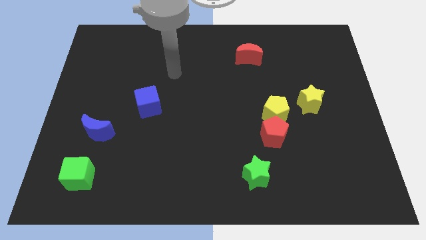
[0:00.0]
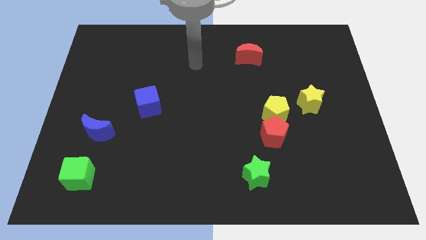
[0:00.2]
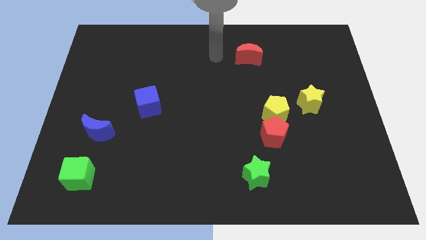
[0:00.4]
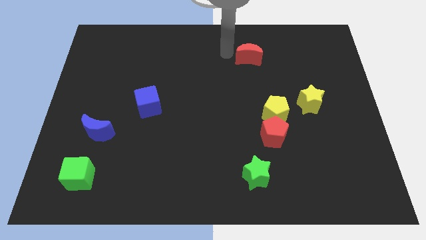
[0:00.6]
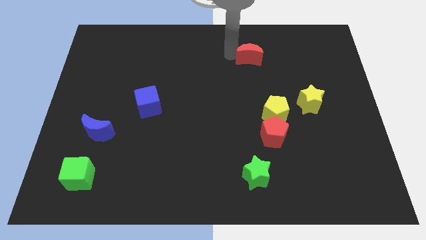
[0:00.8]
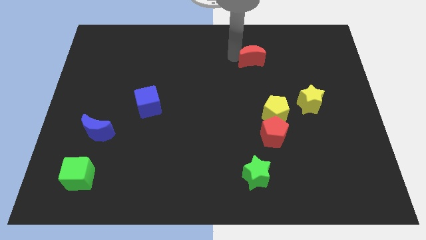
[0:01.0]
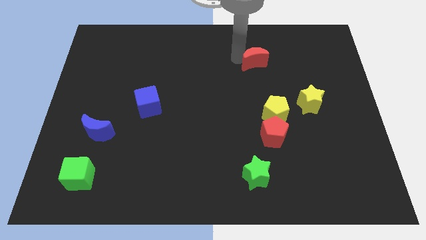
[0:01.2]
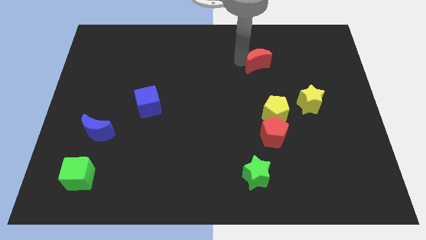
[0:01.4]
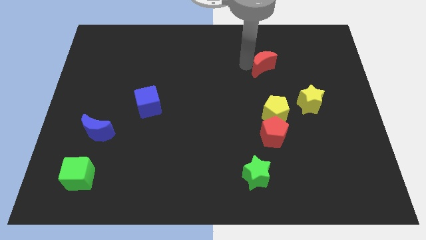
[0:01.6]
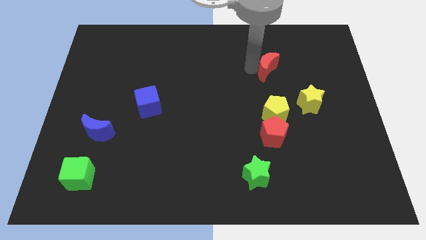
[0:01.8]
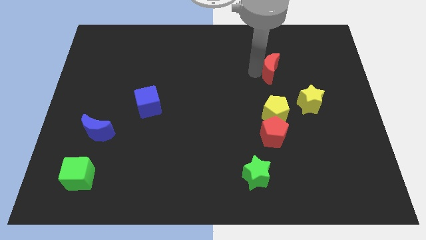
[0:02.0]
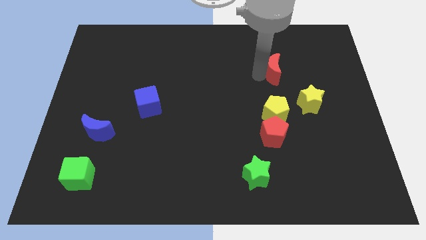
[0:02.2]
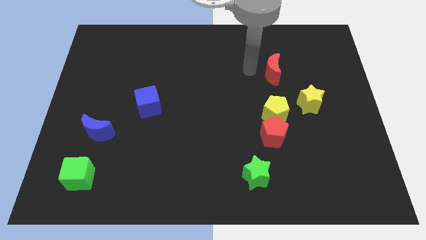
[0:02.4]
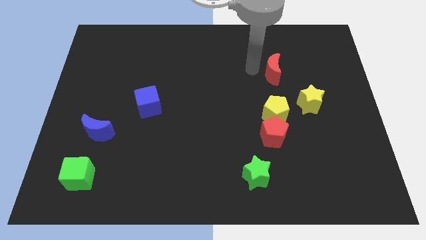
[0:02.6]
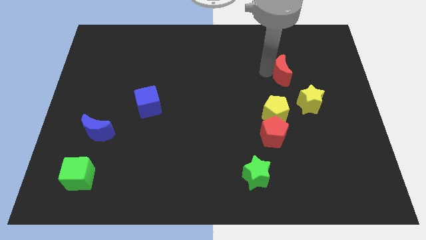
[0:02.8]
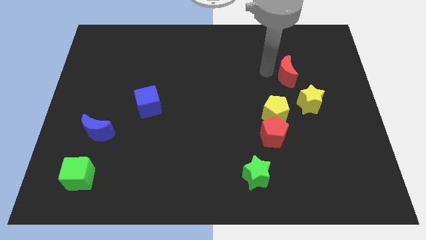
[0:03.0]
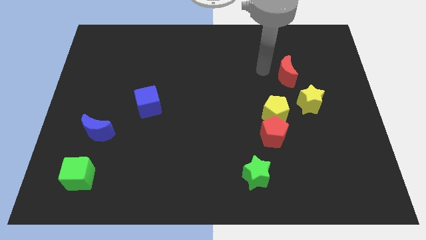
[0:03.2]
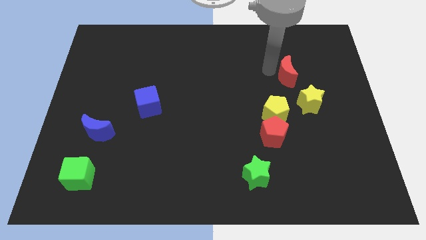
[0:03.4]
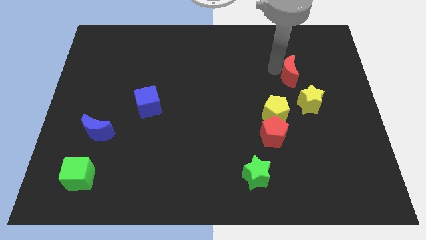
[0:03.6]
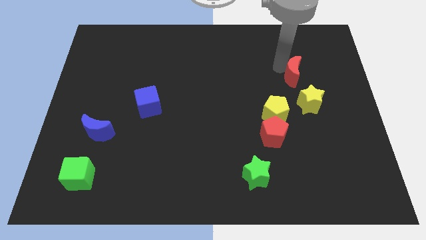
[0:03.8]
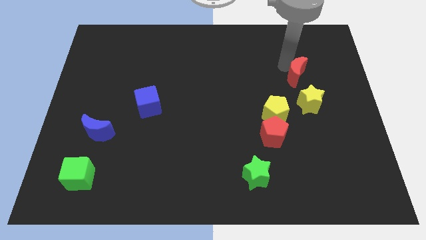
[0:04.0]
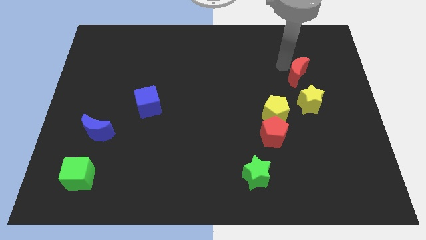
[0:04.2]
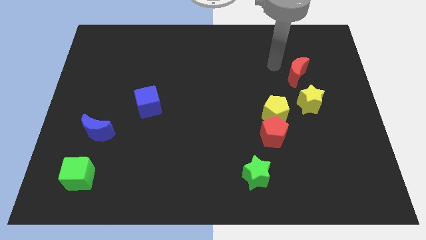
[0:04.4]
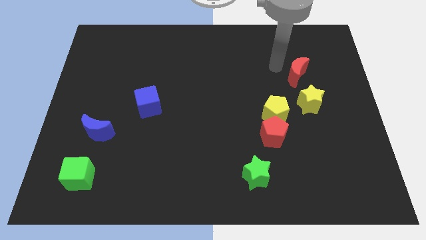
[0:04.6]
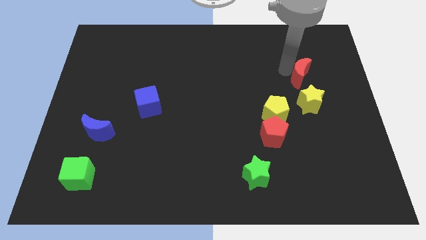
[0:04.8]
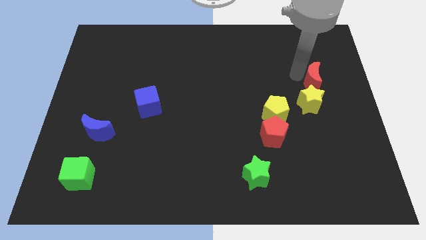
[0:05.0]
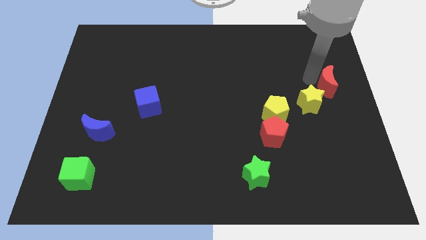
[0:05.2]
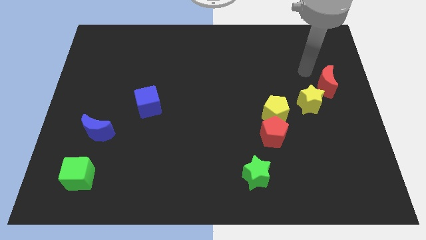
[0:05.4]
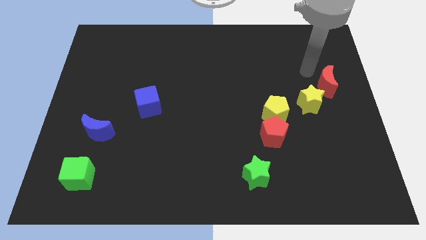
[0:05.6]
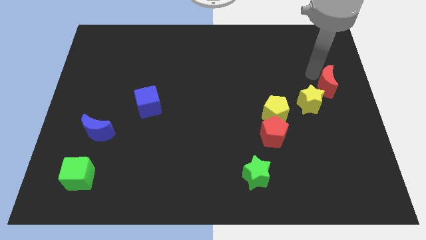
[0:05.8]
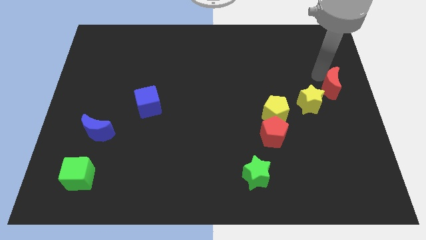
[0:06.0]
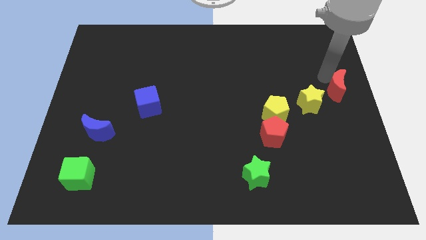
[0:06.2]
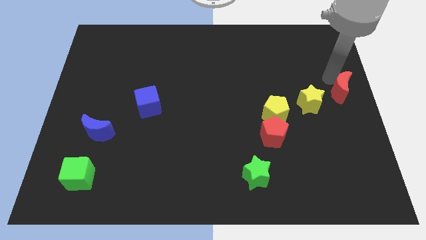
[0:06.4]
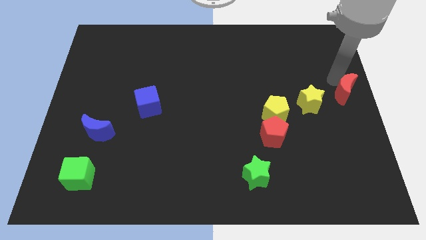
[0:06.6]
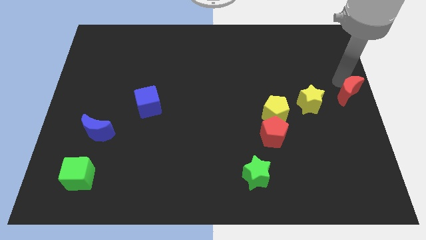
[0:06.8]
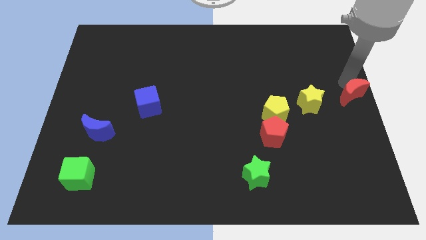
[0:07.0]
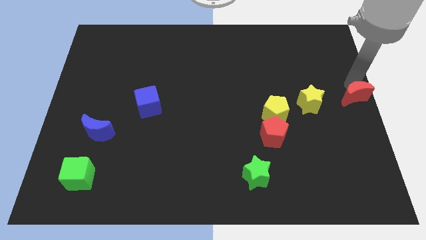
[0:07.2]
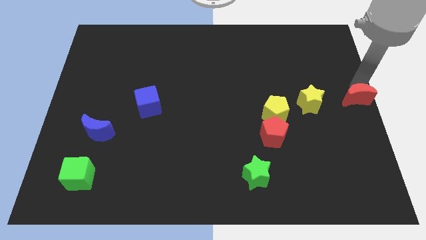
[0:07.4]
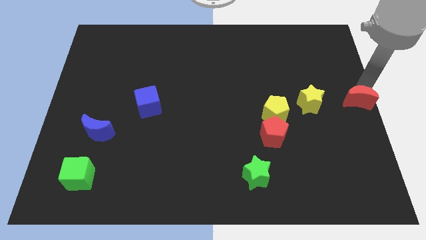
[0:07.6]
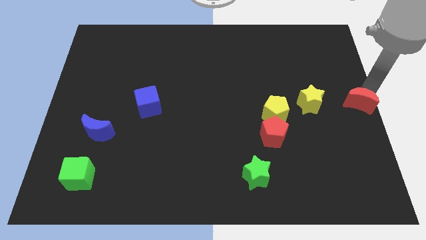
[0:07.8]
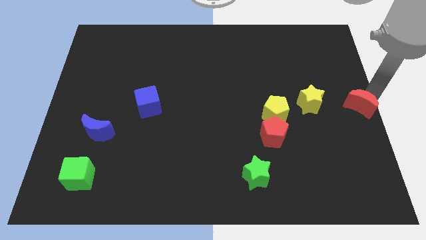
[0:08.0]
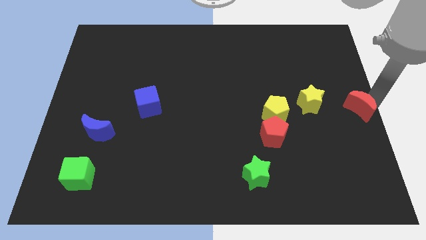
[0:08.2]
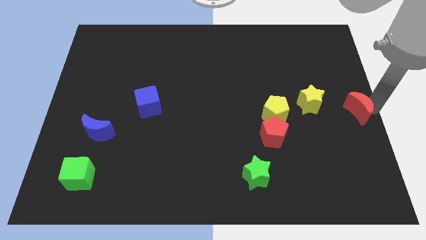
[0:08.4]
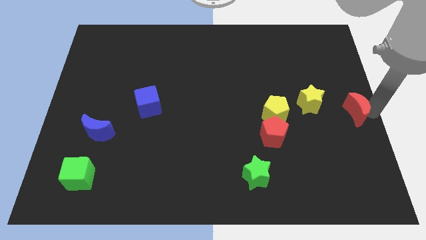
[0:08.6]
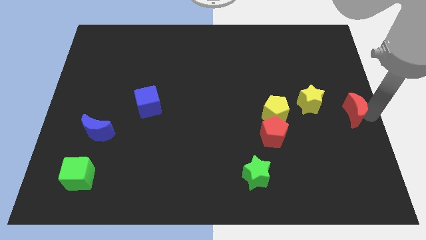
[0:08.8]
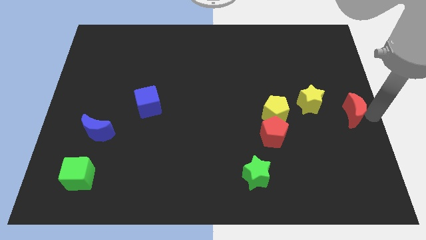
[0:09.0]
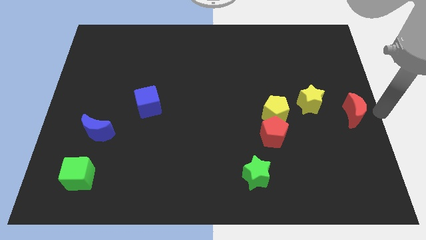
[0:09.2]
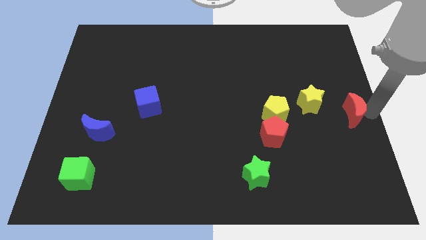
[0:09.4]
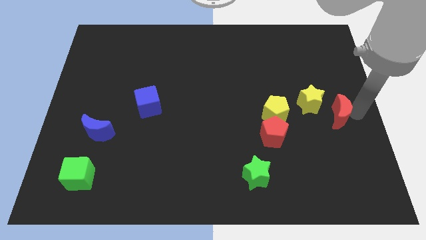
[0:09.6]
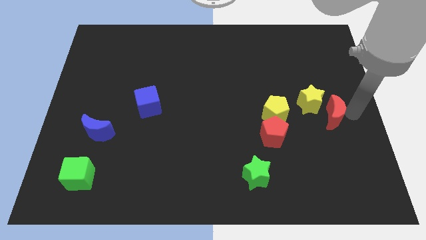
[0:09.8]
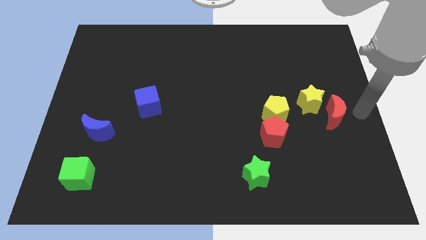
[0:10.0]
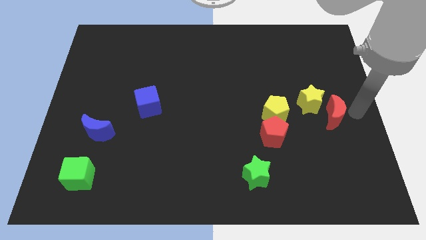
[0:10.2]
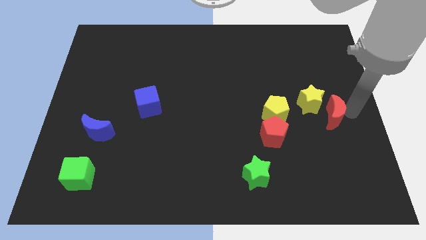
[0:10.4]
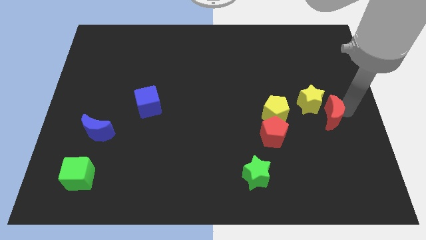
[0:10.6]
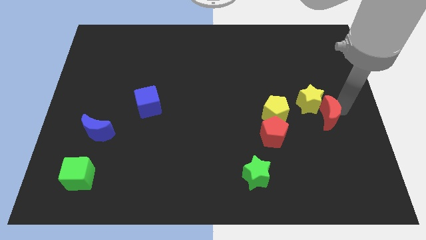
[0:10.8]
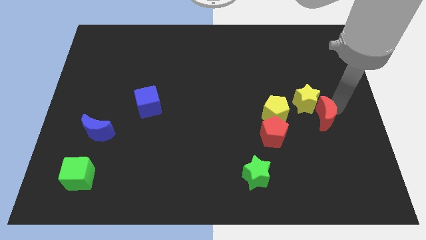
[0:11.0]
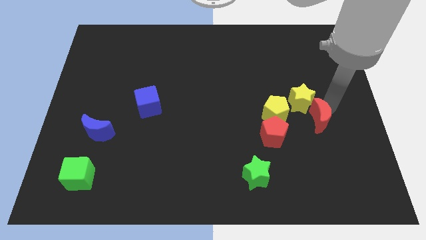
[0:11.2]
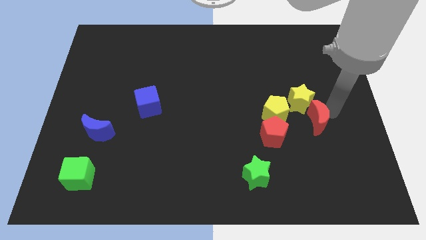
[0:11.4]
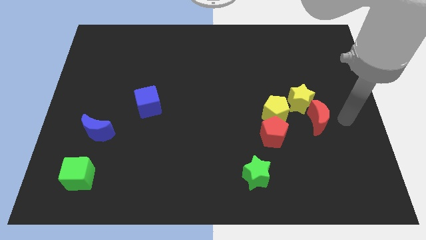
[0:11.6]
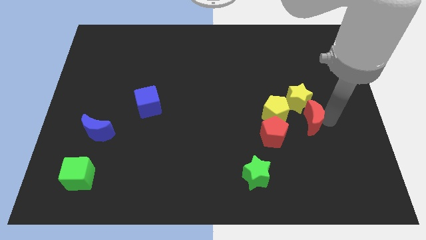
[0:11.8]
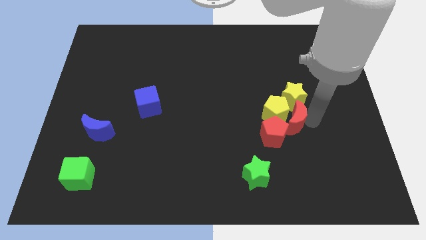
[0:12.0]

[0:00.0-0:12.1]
push the red moon to the bottom left side of the yellow star

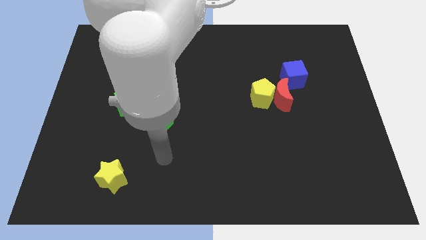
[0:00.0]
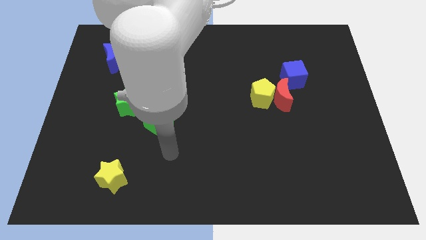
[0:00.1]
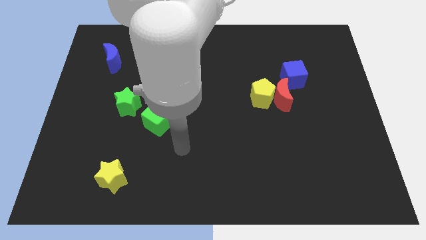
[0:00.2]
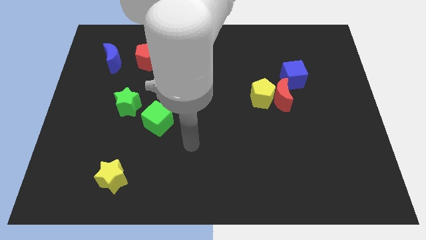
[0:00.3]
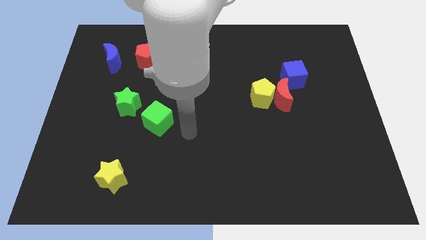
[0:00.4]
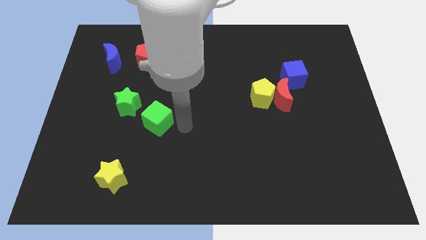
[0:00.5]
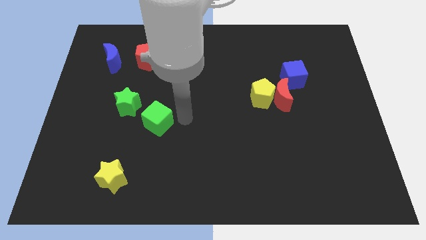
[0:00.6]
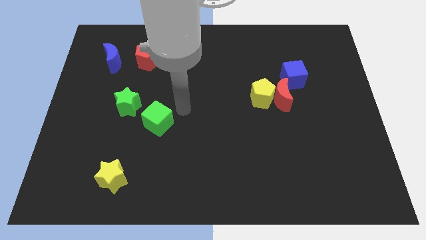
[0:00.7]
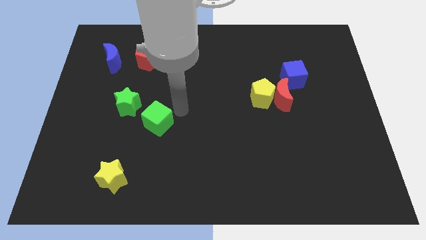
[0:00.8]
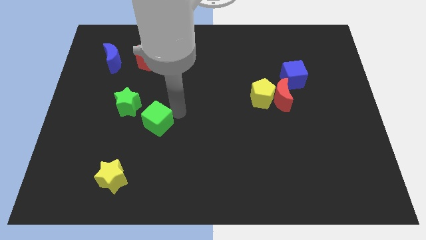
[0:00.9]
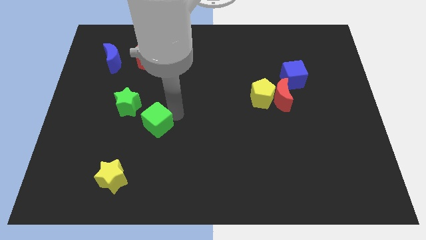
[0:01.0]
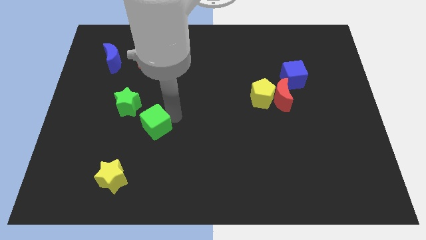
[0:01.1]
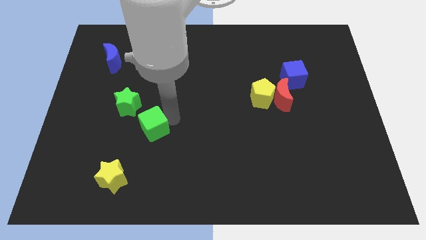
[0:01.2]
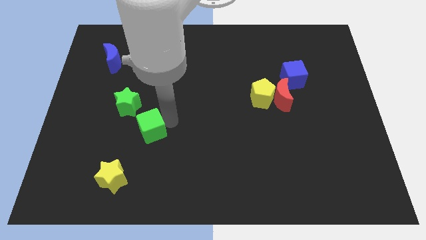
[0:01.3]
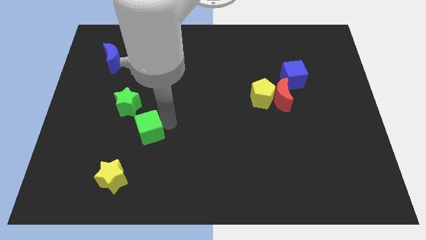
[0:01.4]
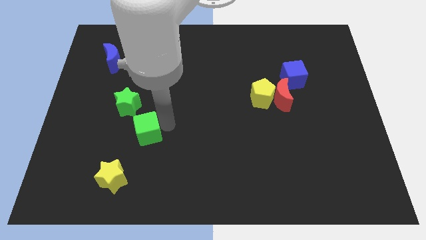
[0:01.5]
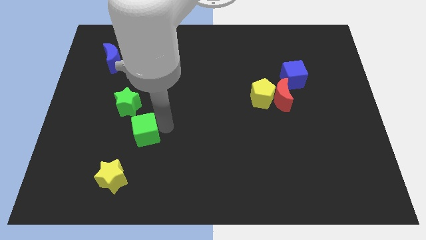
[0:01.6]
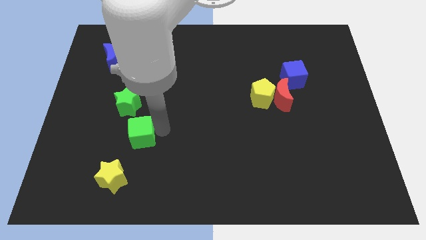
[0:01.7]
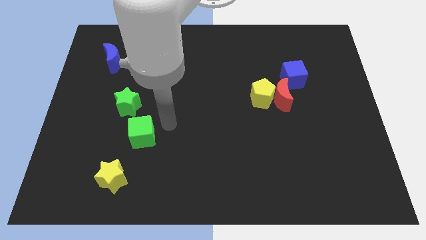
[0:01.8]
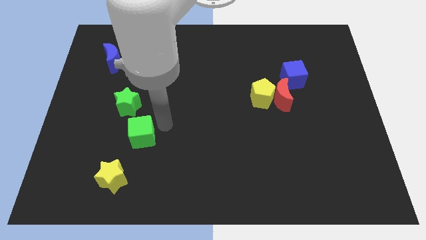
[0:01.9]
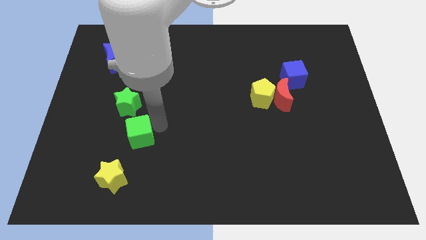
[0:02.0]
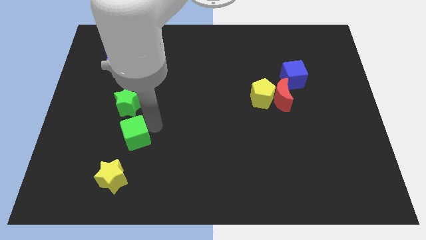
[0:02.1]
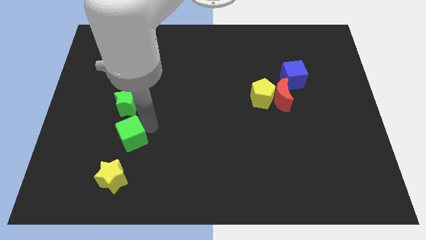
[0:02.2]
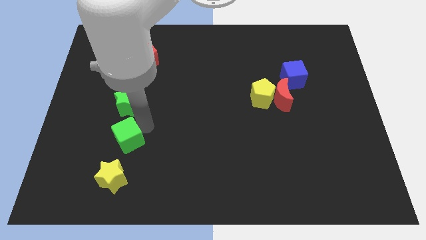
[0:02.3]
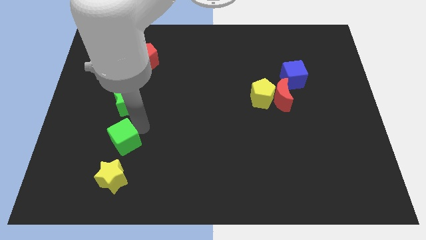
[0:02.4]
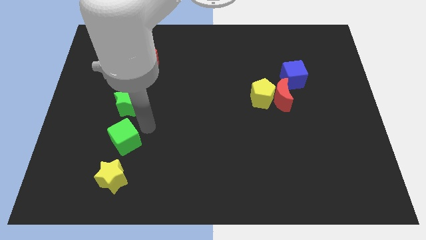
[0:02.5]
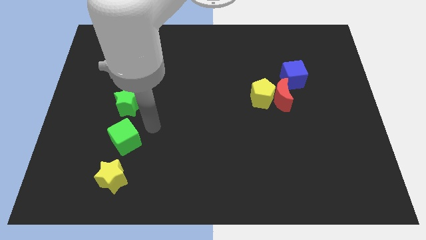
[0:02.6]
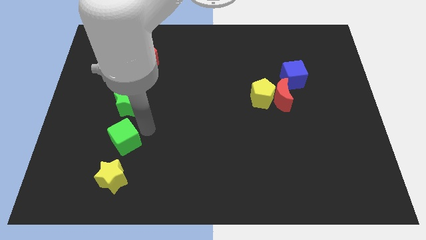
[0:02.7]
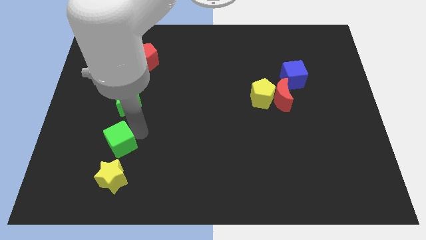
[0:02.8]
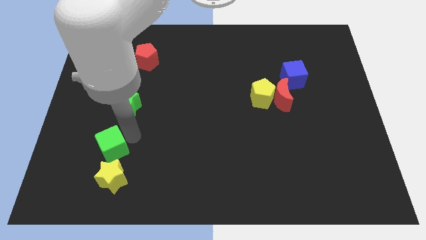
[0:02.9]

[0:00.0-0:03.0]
slide the green cube to the top left side of the yellow star
